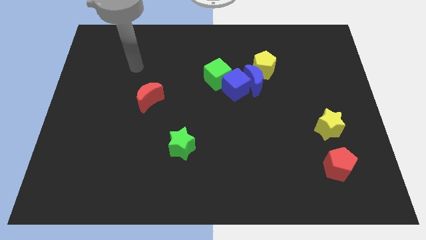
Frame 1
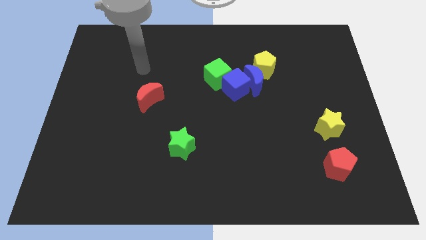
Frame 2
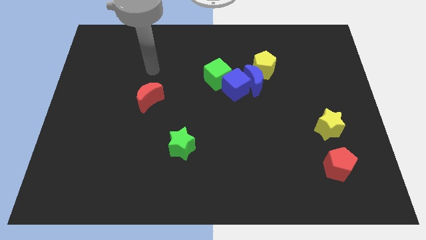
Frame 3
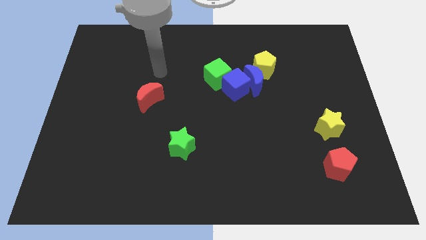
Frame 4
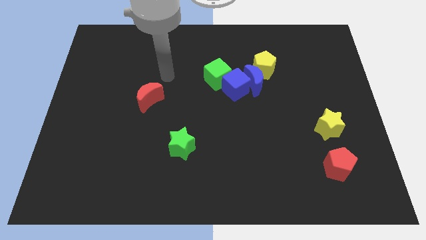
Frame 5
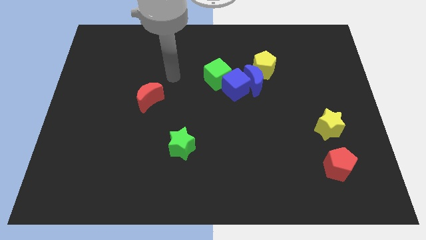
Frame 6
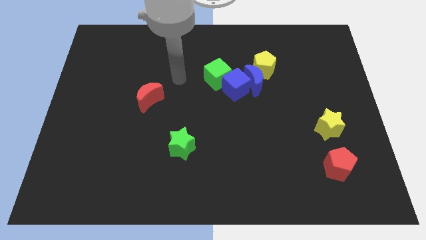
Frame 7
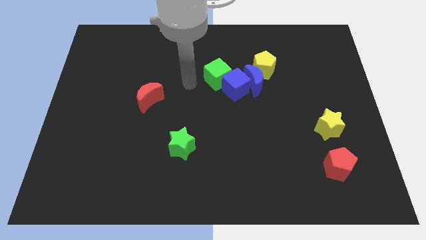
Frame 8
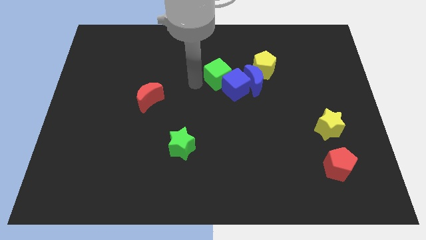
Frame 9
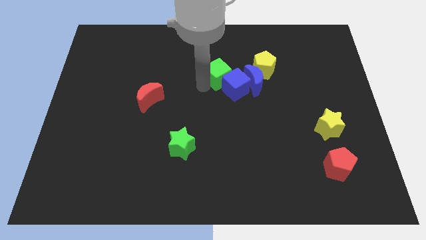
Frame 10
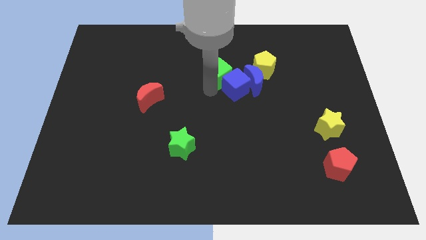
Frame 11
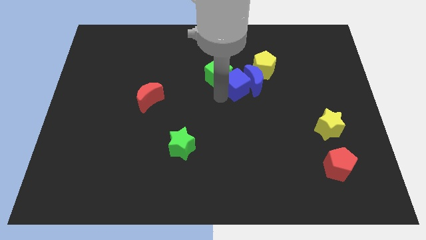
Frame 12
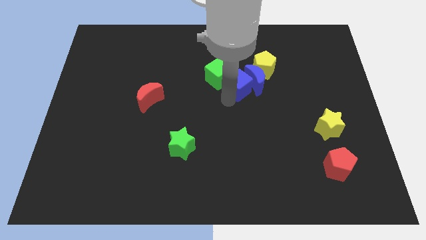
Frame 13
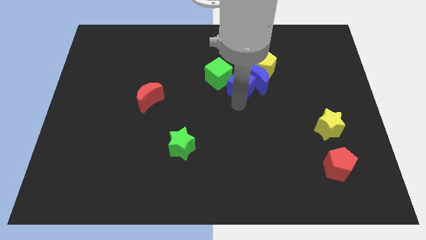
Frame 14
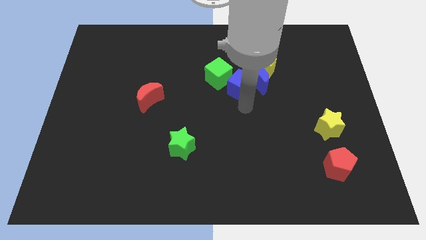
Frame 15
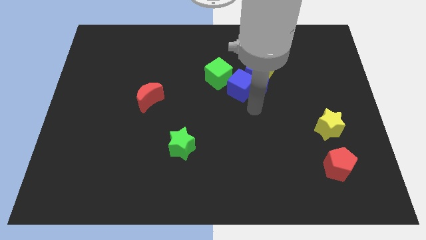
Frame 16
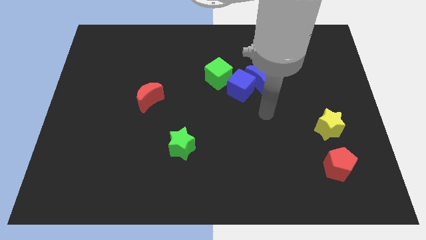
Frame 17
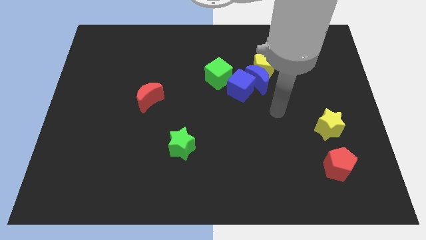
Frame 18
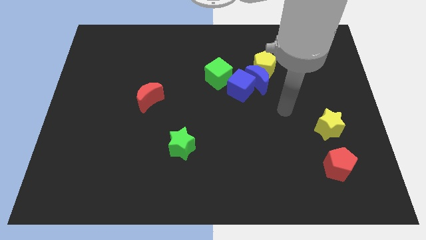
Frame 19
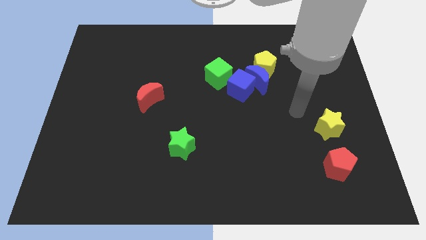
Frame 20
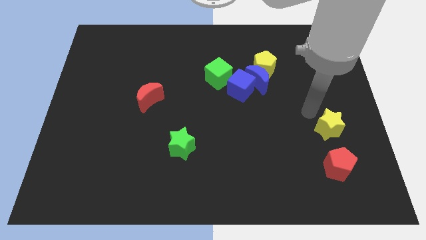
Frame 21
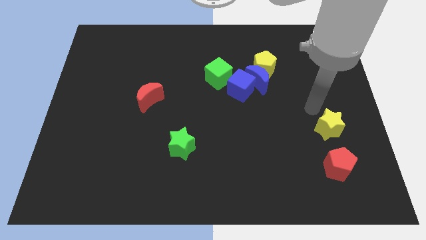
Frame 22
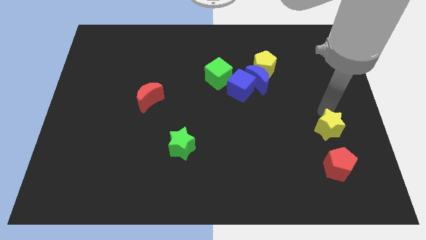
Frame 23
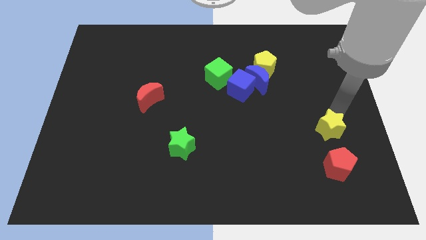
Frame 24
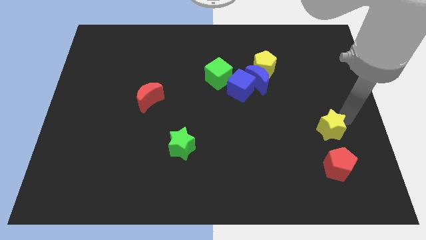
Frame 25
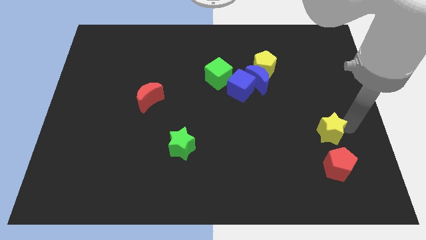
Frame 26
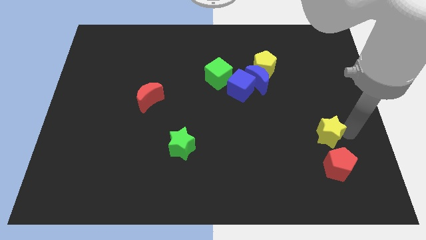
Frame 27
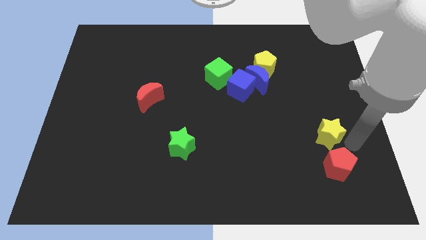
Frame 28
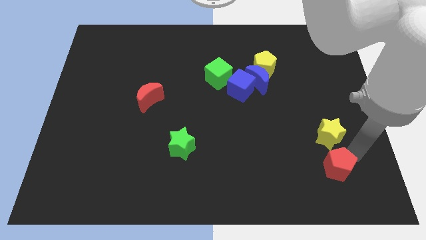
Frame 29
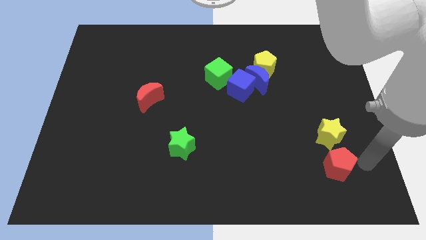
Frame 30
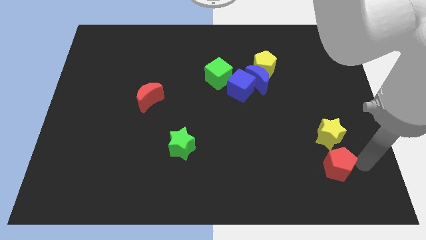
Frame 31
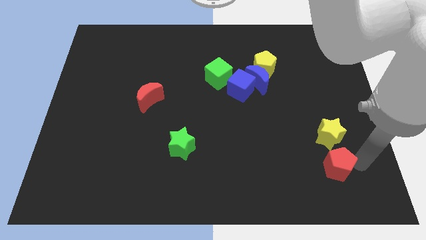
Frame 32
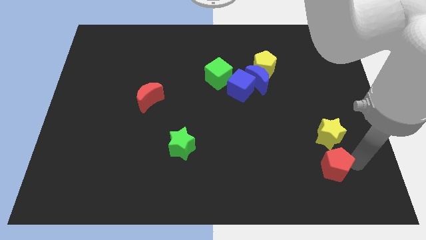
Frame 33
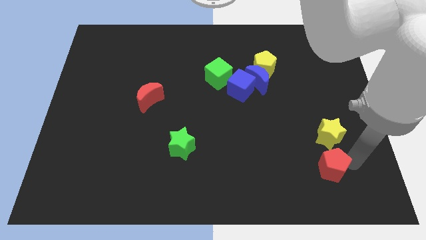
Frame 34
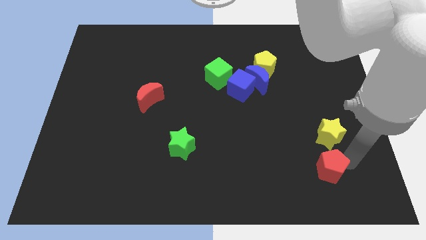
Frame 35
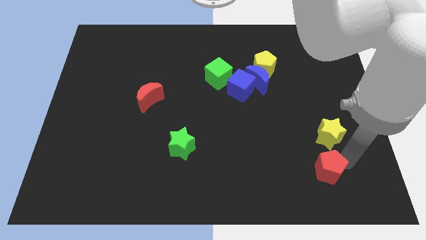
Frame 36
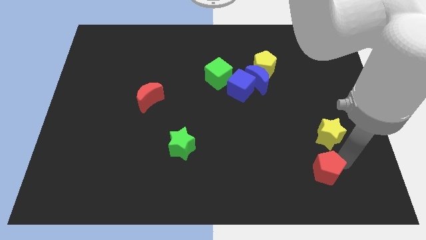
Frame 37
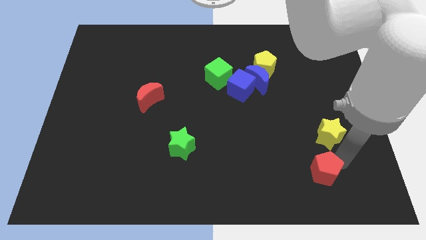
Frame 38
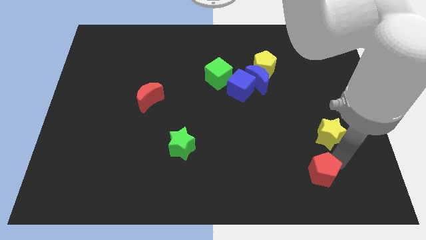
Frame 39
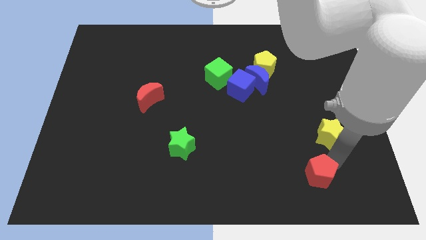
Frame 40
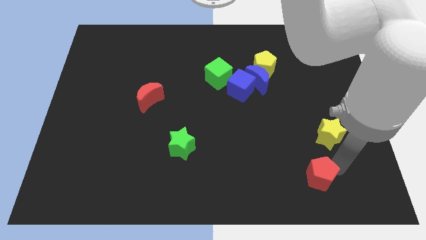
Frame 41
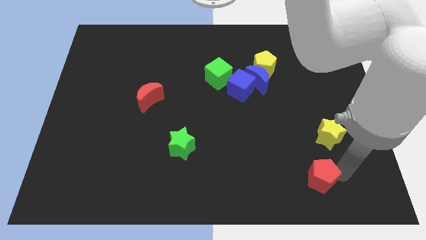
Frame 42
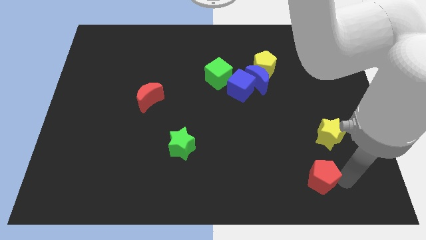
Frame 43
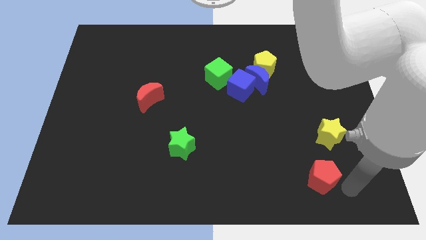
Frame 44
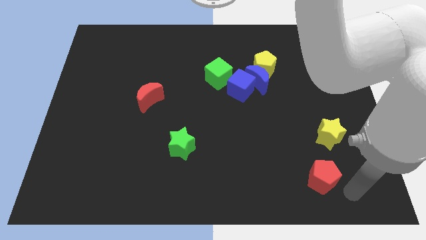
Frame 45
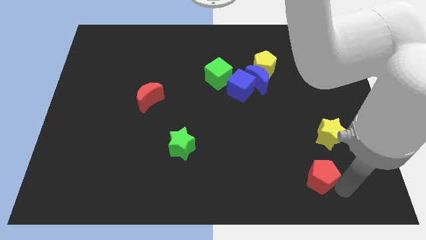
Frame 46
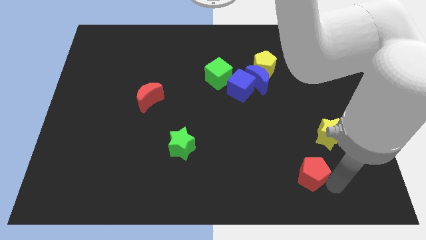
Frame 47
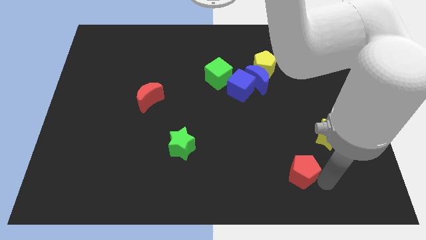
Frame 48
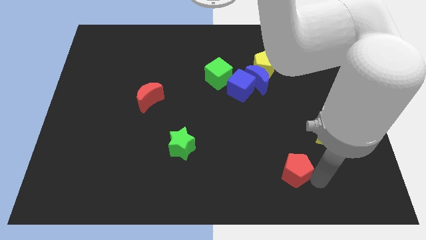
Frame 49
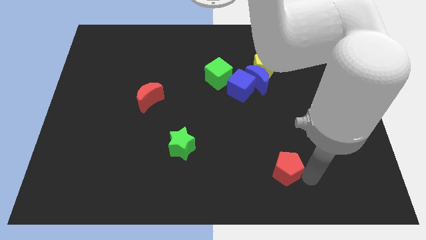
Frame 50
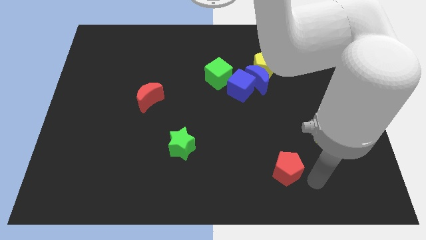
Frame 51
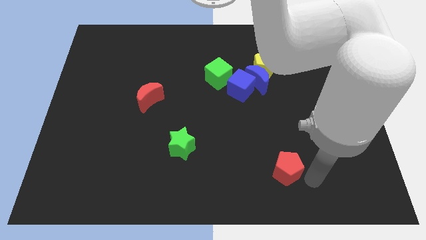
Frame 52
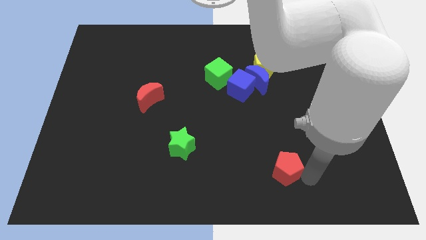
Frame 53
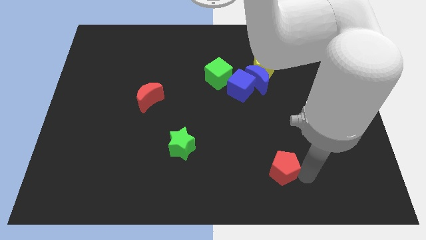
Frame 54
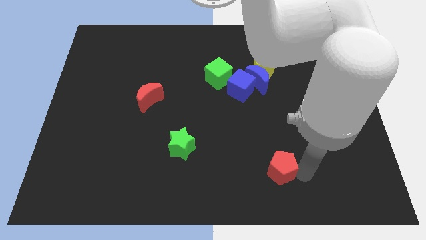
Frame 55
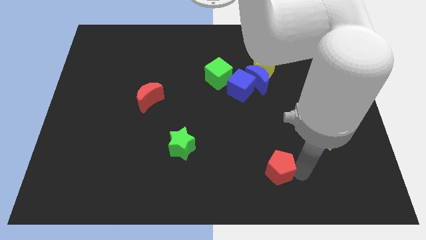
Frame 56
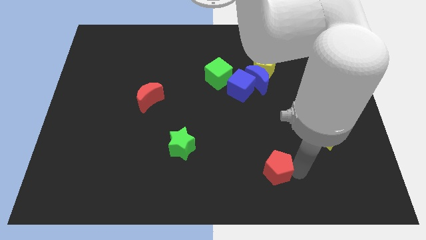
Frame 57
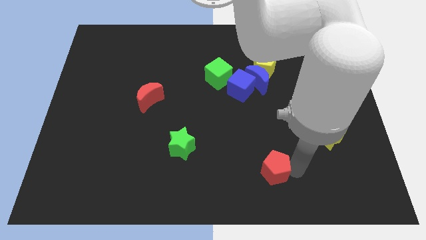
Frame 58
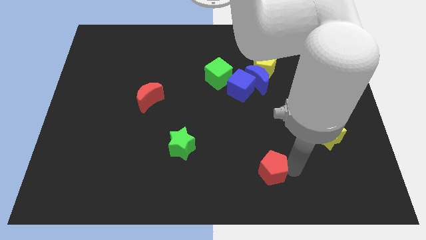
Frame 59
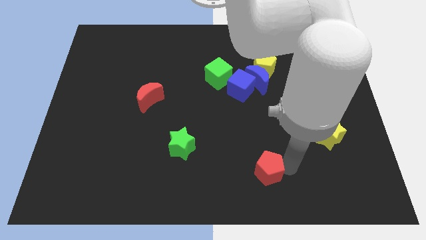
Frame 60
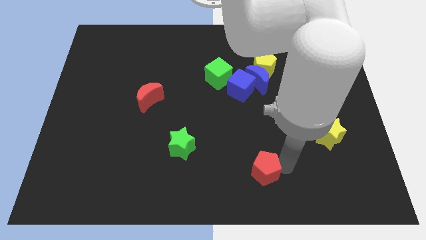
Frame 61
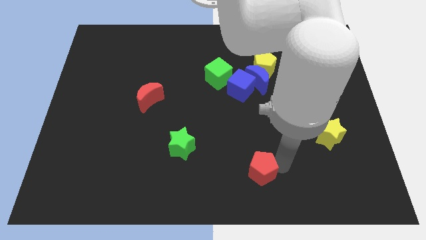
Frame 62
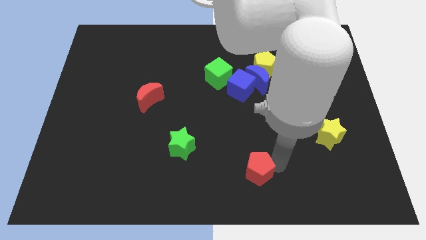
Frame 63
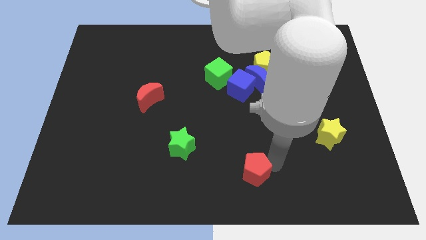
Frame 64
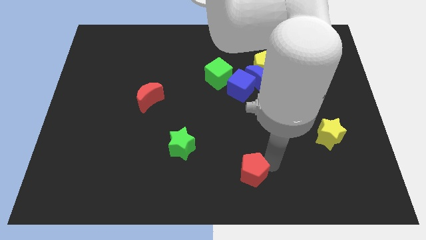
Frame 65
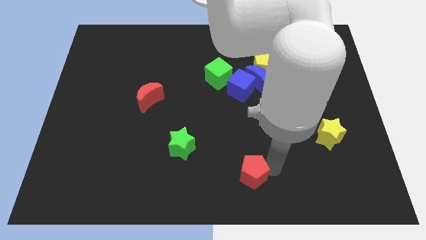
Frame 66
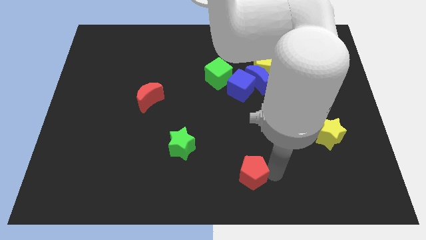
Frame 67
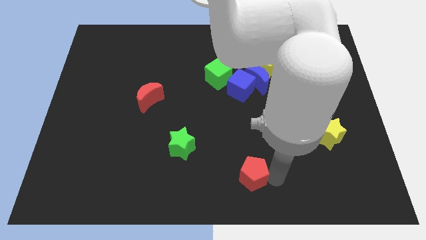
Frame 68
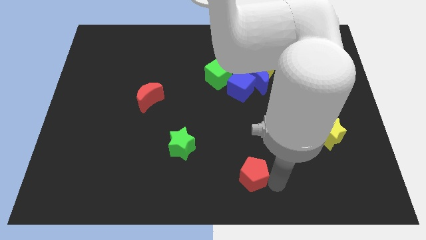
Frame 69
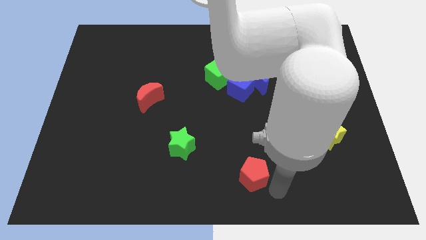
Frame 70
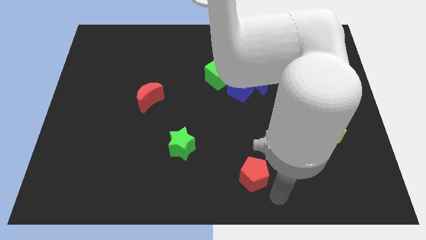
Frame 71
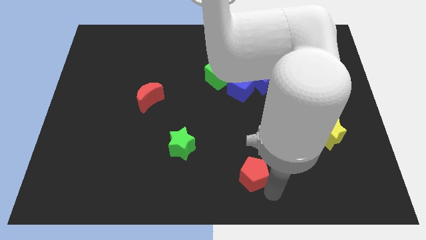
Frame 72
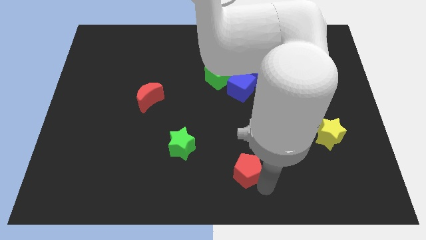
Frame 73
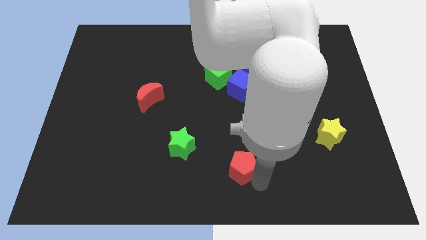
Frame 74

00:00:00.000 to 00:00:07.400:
move the red pentagon to the left

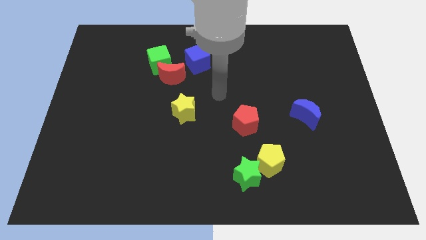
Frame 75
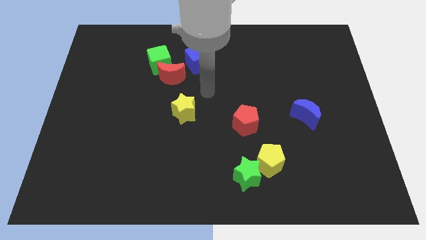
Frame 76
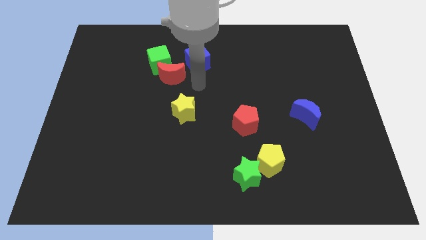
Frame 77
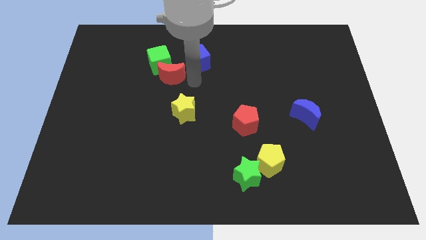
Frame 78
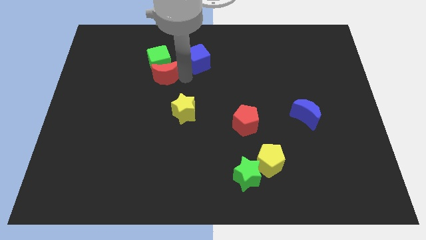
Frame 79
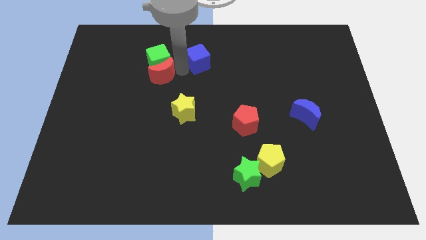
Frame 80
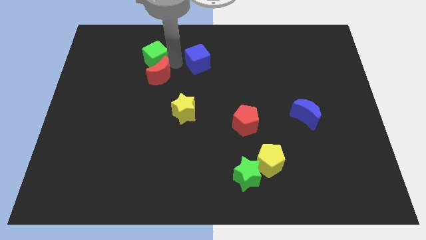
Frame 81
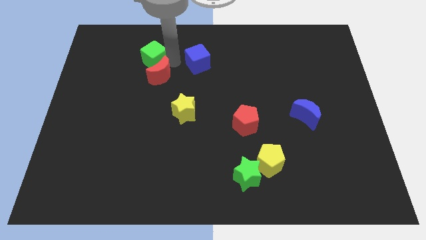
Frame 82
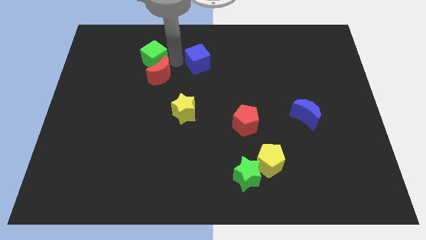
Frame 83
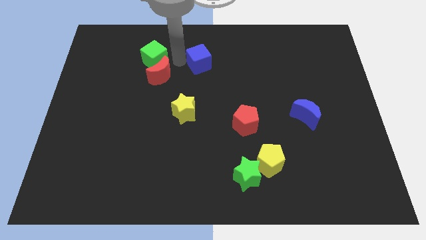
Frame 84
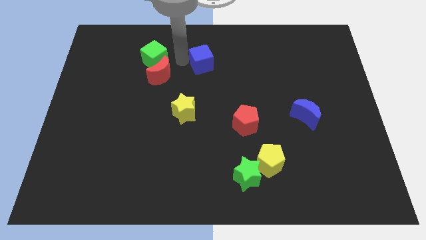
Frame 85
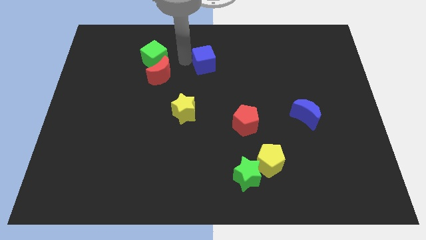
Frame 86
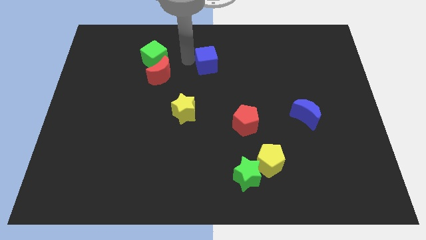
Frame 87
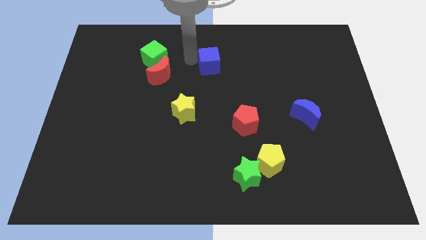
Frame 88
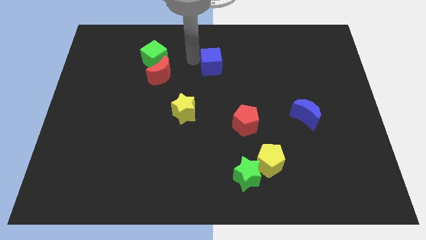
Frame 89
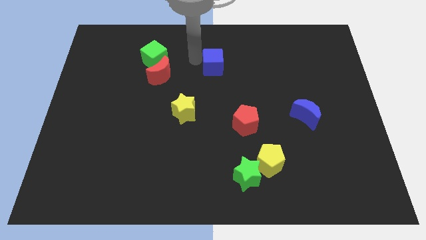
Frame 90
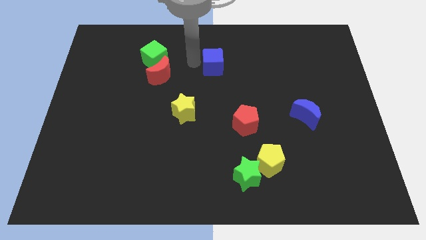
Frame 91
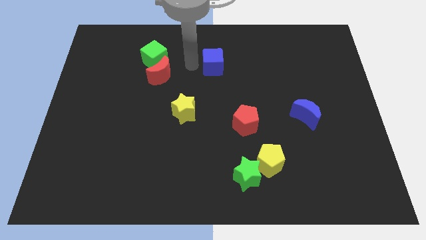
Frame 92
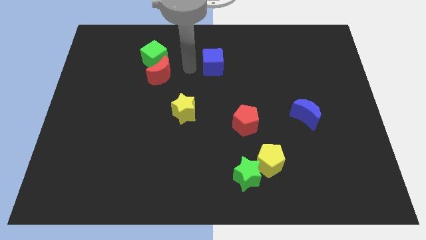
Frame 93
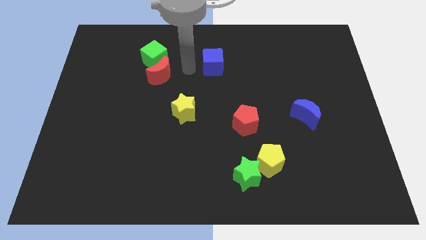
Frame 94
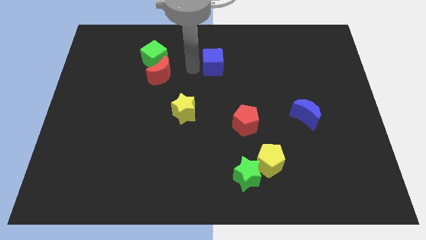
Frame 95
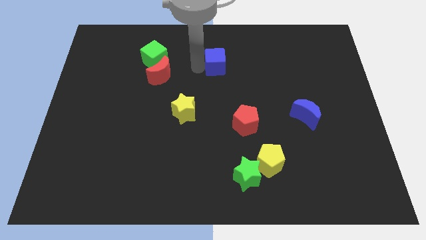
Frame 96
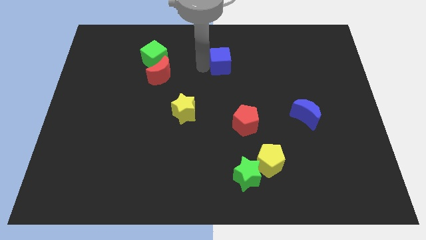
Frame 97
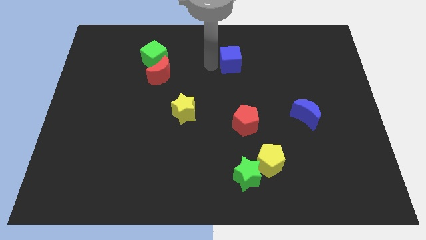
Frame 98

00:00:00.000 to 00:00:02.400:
slide the blue cube right a bit
